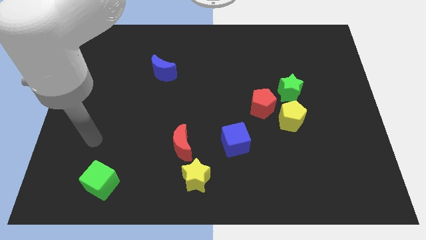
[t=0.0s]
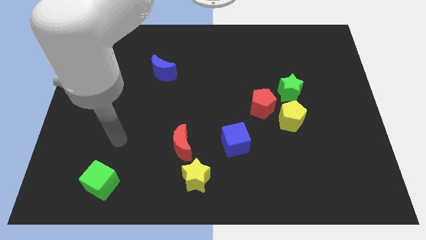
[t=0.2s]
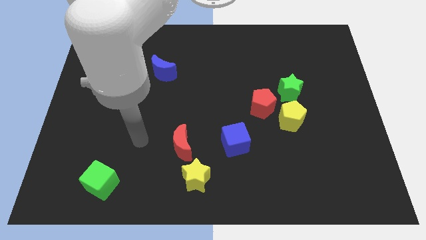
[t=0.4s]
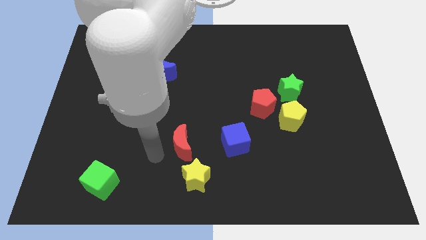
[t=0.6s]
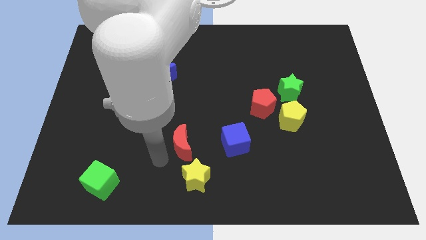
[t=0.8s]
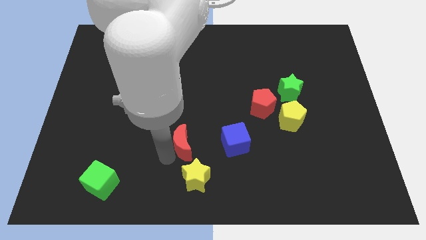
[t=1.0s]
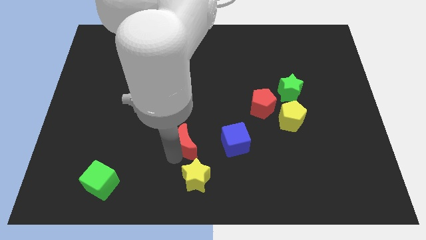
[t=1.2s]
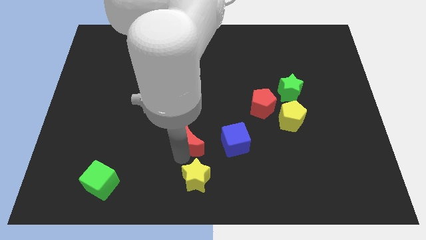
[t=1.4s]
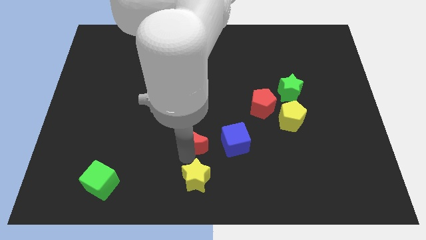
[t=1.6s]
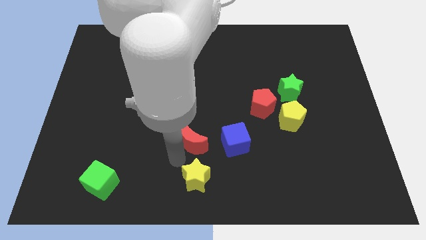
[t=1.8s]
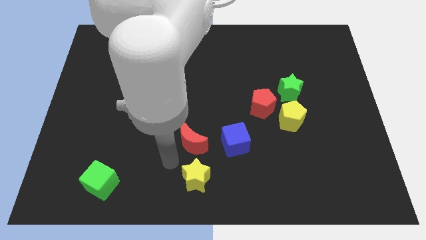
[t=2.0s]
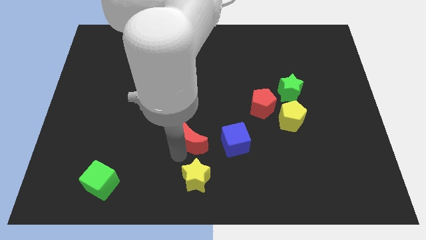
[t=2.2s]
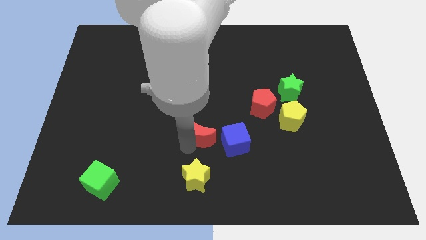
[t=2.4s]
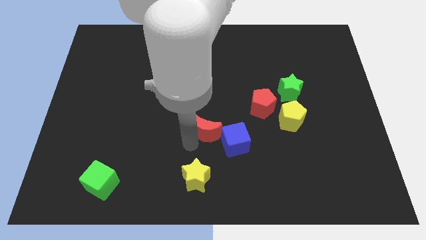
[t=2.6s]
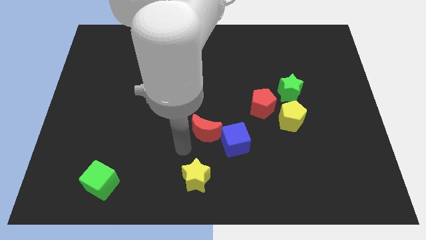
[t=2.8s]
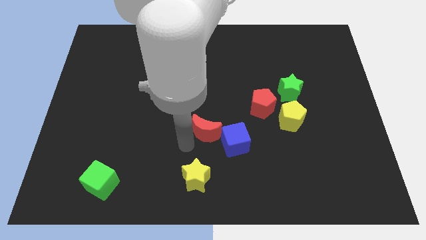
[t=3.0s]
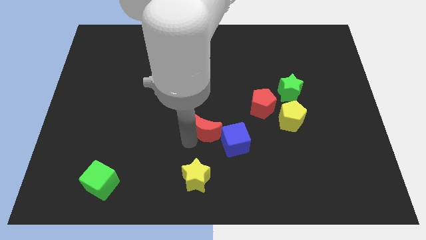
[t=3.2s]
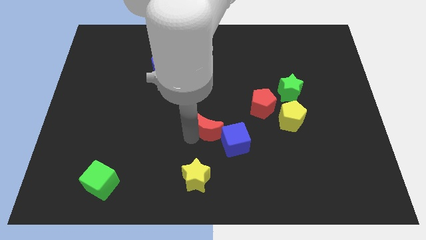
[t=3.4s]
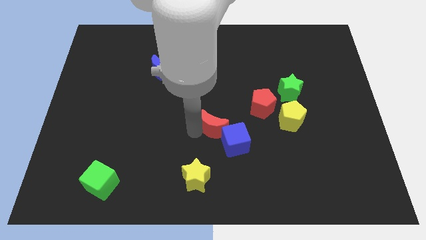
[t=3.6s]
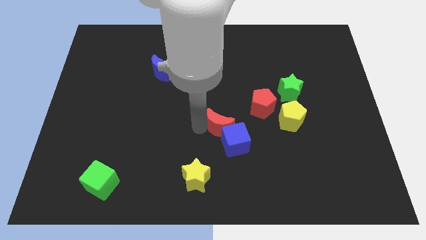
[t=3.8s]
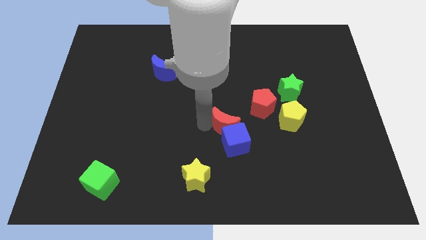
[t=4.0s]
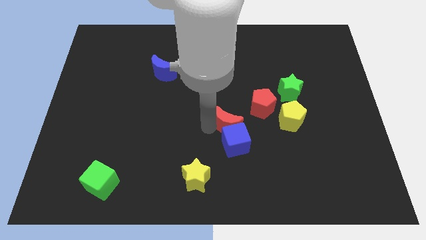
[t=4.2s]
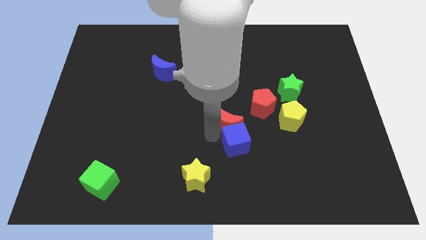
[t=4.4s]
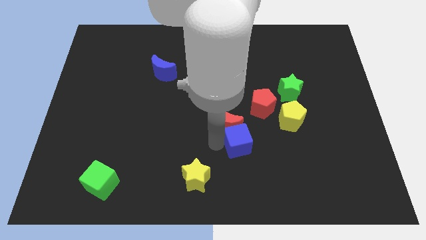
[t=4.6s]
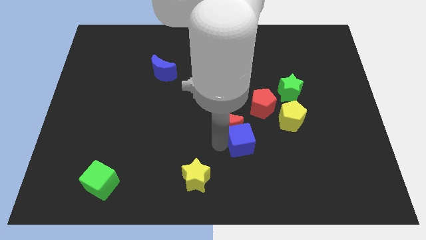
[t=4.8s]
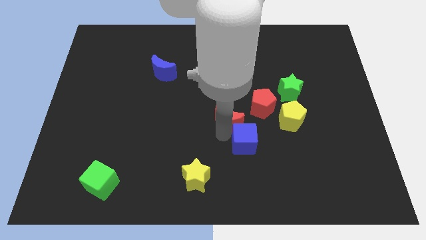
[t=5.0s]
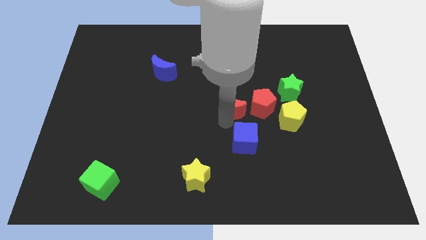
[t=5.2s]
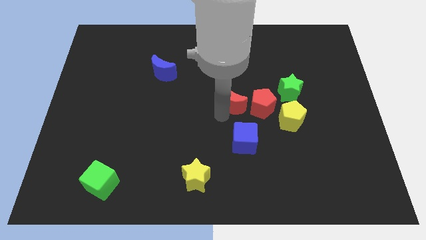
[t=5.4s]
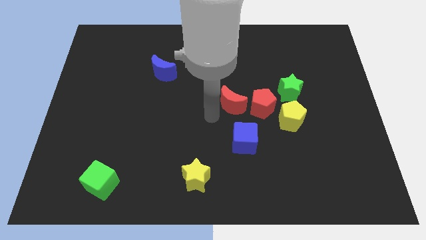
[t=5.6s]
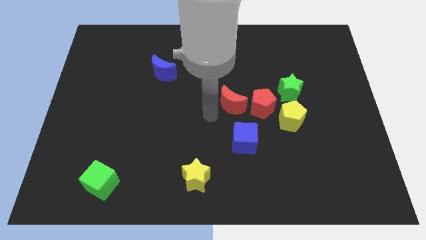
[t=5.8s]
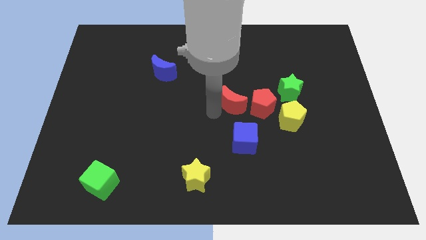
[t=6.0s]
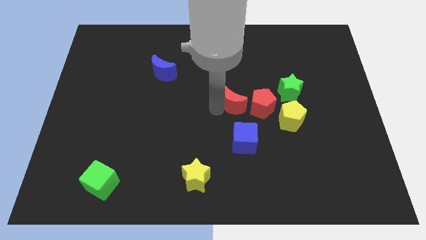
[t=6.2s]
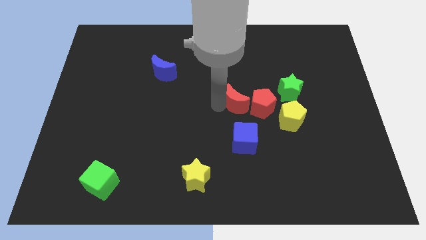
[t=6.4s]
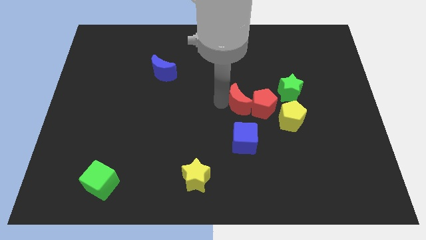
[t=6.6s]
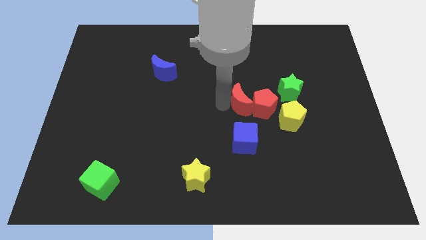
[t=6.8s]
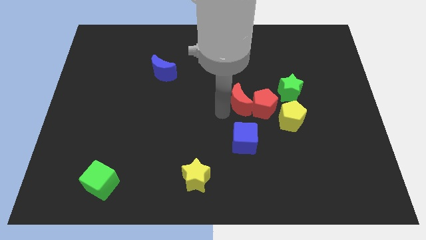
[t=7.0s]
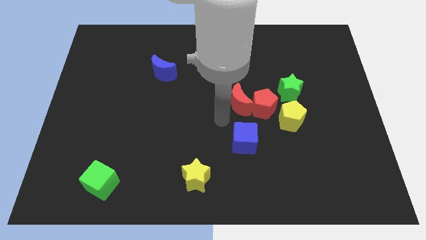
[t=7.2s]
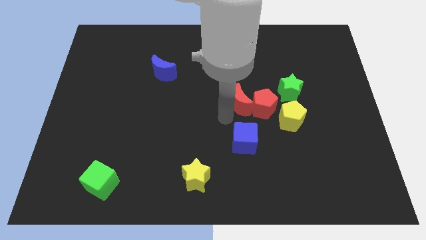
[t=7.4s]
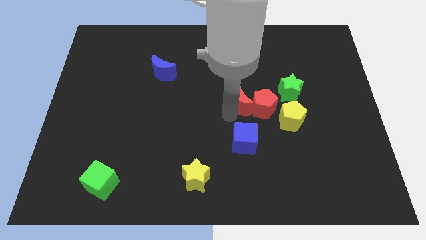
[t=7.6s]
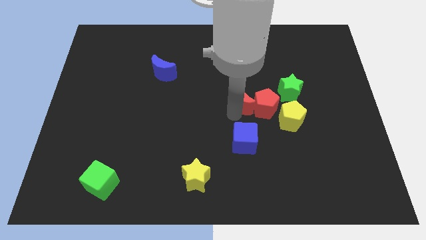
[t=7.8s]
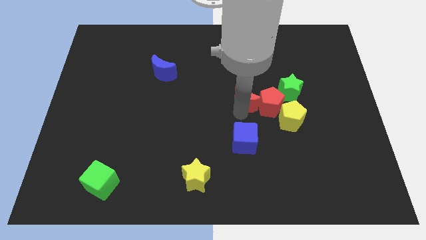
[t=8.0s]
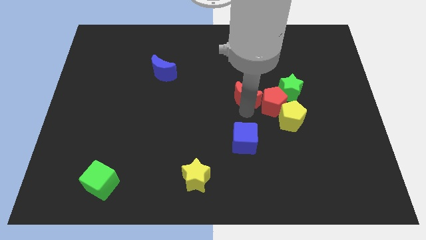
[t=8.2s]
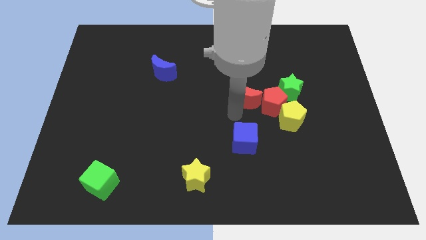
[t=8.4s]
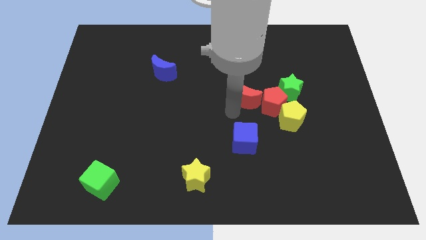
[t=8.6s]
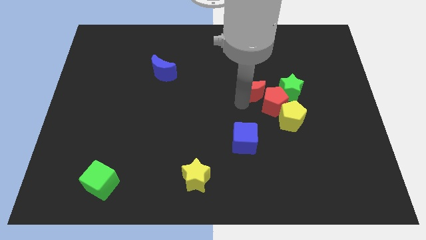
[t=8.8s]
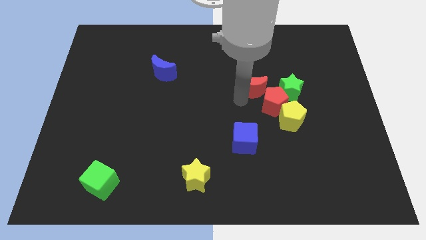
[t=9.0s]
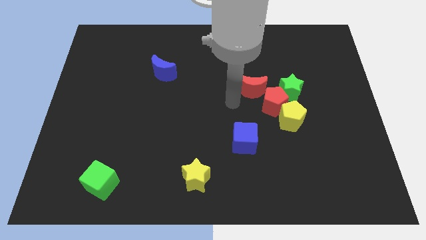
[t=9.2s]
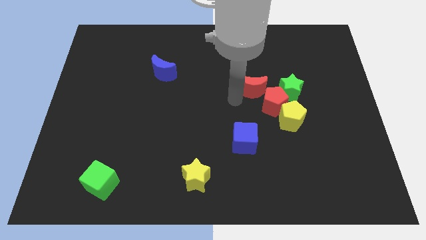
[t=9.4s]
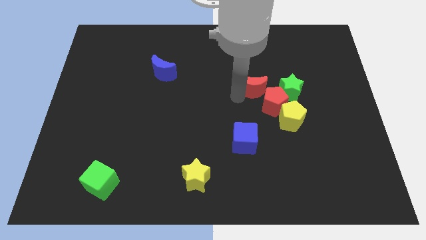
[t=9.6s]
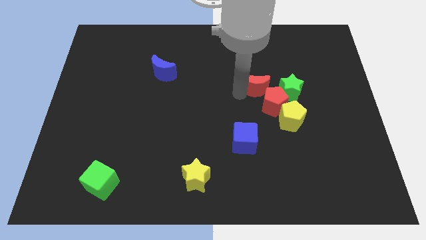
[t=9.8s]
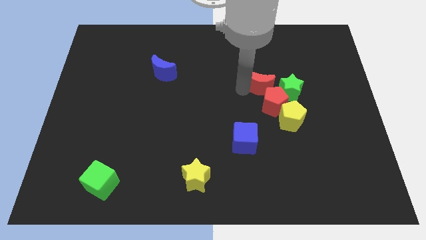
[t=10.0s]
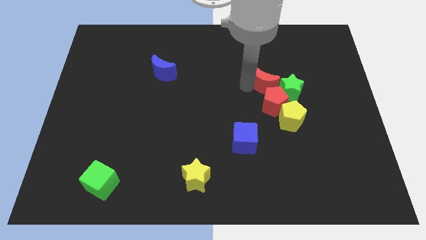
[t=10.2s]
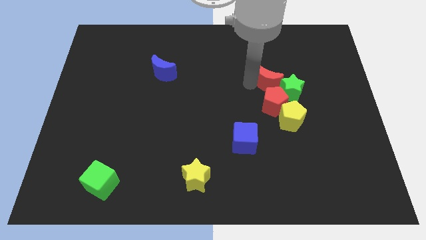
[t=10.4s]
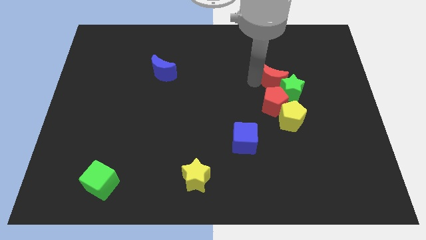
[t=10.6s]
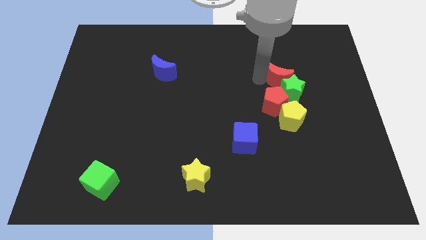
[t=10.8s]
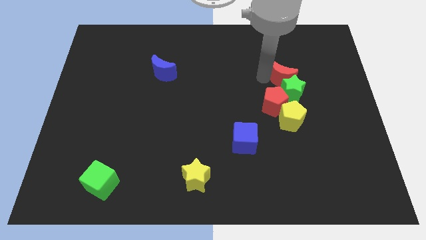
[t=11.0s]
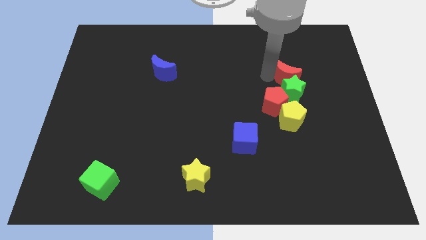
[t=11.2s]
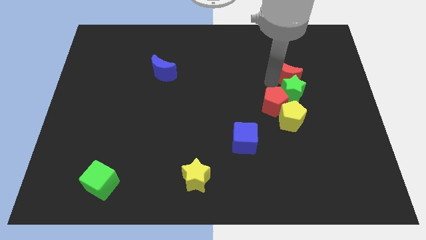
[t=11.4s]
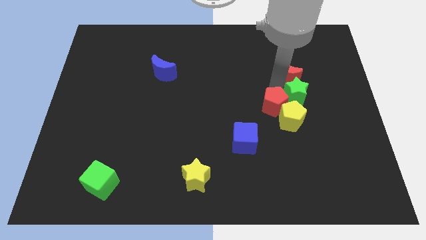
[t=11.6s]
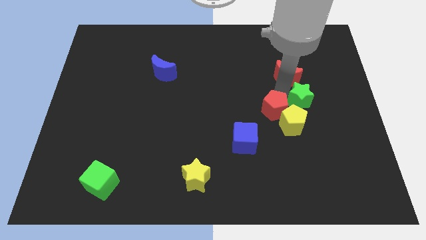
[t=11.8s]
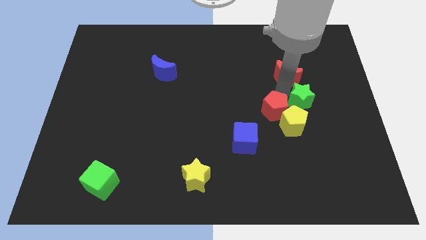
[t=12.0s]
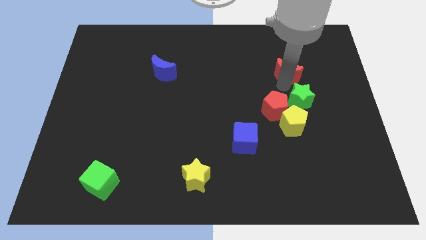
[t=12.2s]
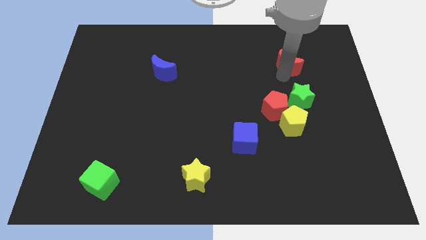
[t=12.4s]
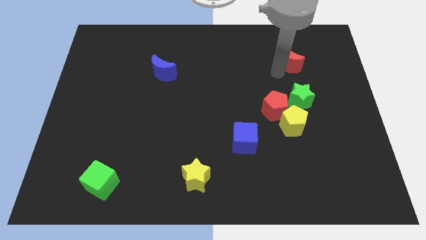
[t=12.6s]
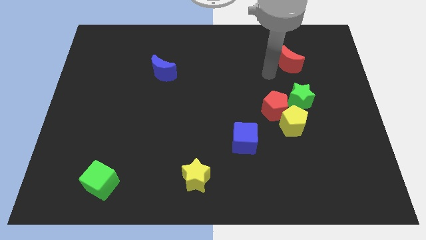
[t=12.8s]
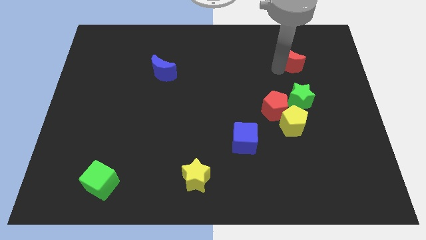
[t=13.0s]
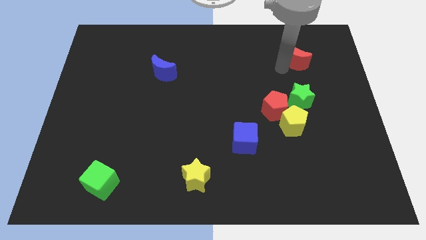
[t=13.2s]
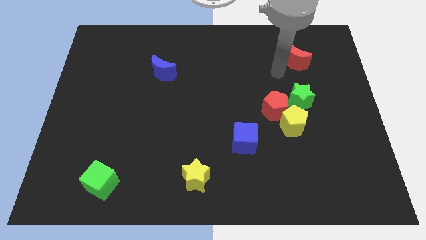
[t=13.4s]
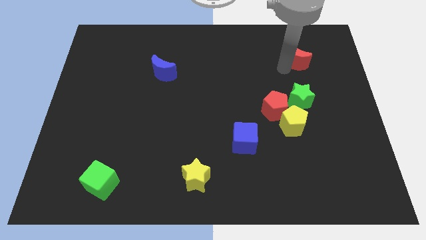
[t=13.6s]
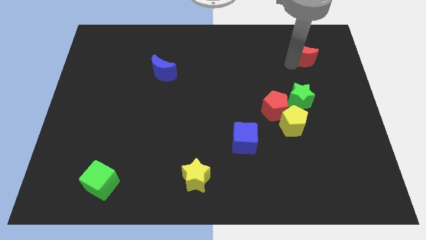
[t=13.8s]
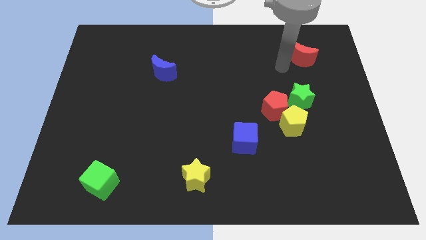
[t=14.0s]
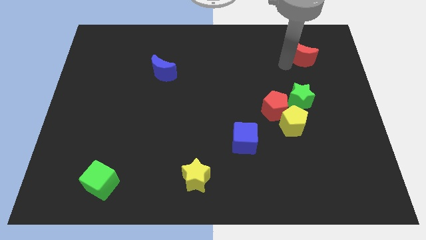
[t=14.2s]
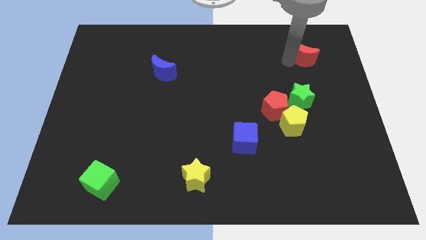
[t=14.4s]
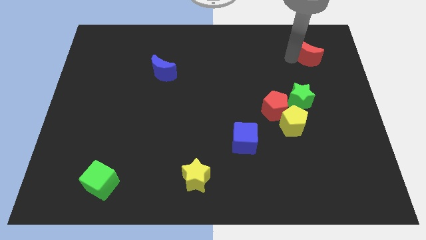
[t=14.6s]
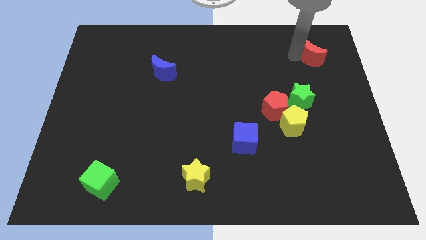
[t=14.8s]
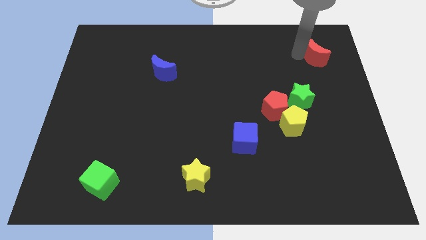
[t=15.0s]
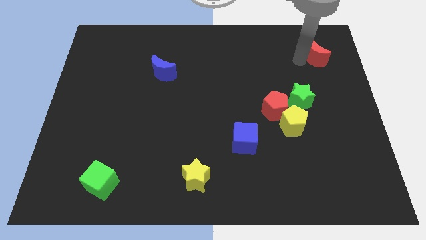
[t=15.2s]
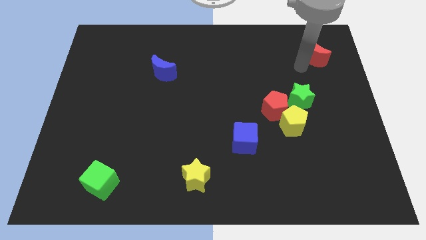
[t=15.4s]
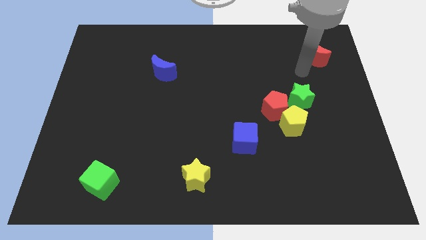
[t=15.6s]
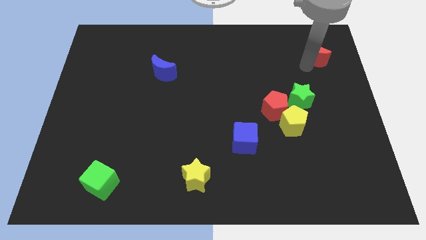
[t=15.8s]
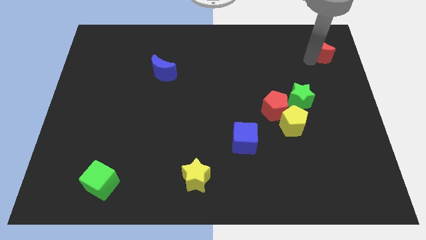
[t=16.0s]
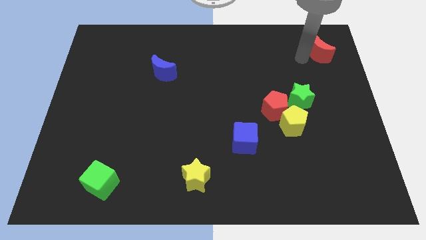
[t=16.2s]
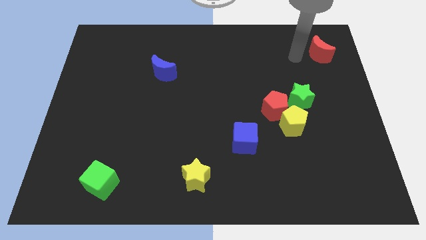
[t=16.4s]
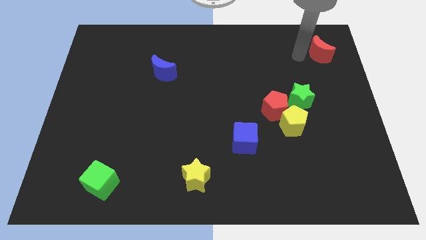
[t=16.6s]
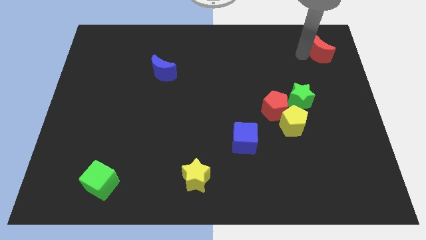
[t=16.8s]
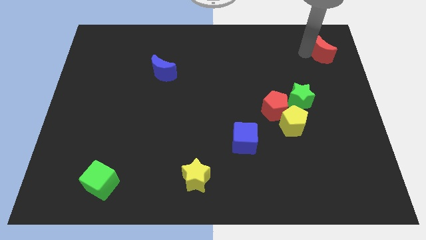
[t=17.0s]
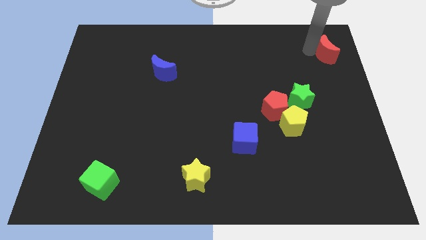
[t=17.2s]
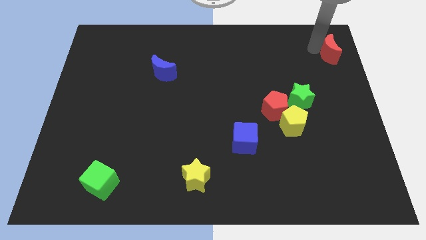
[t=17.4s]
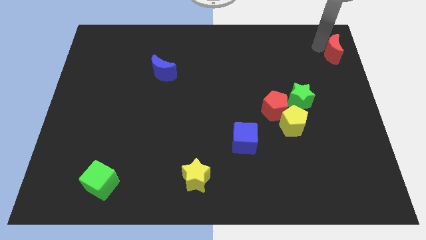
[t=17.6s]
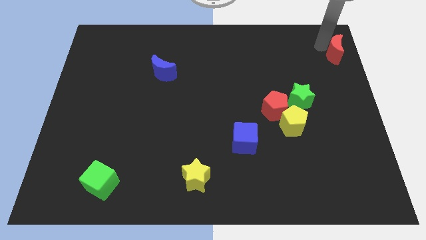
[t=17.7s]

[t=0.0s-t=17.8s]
push the red moon to the top right corner
